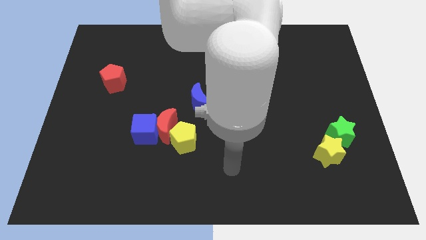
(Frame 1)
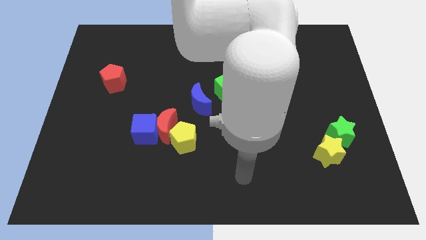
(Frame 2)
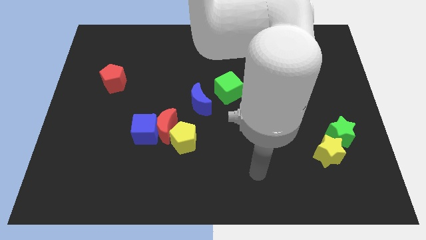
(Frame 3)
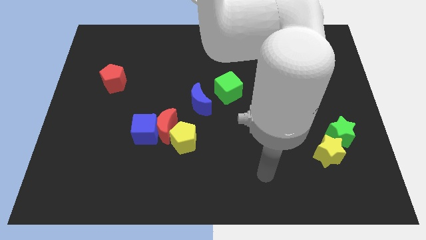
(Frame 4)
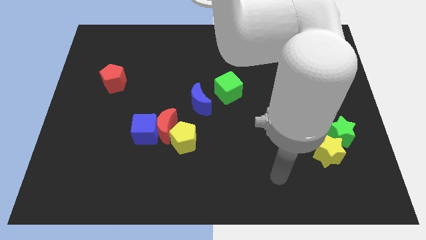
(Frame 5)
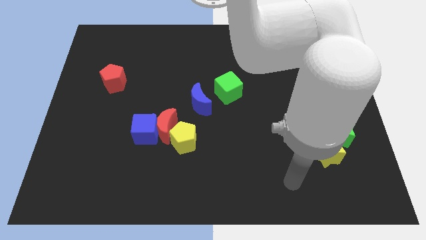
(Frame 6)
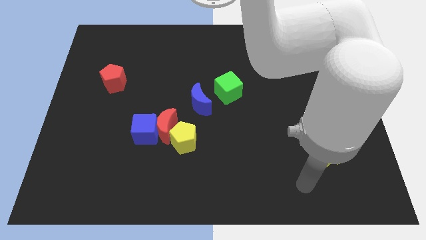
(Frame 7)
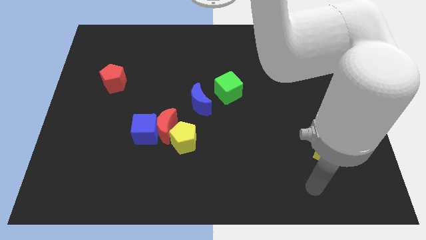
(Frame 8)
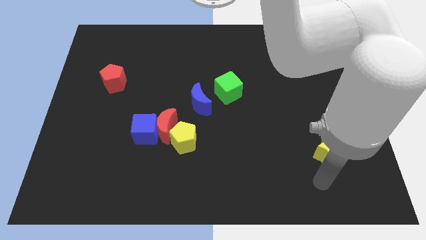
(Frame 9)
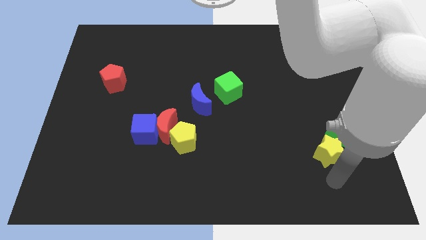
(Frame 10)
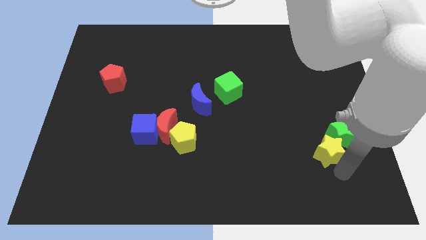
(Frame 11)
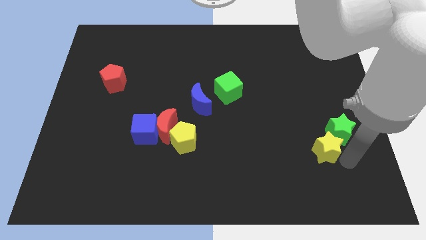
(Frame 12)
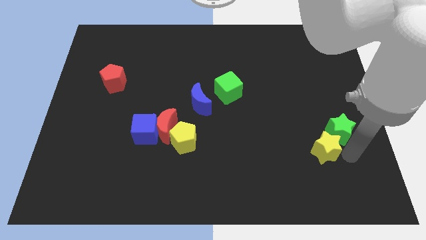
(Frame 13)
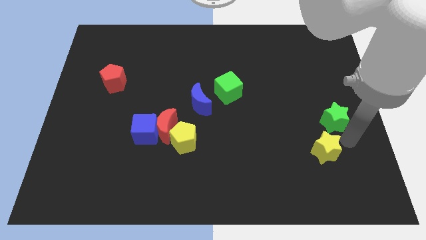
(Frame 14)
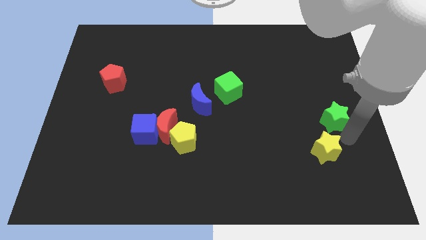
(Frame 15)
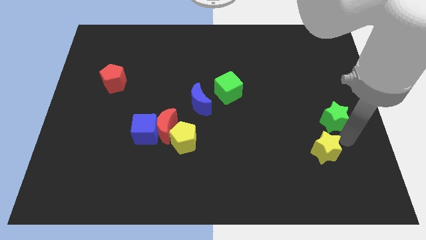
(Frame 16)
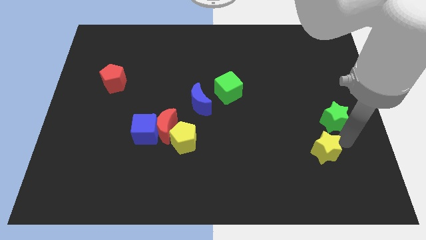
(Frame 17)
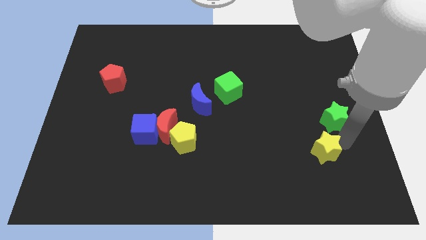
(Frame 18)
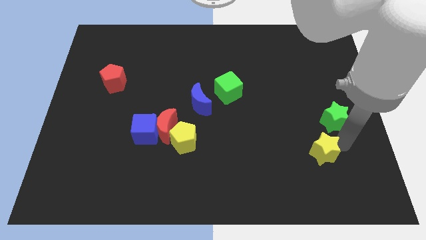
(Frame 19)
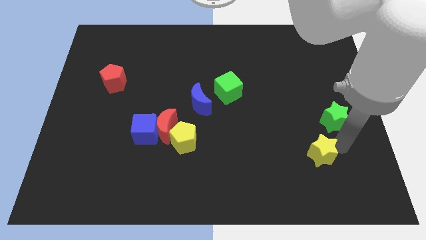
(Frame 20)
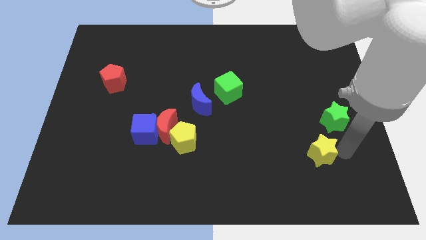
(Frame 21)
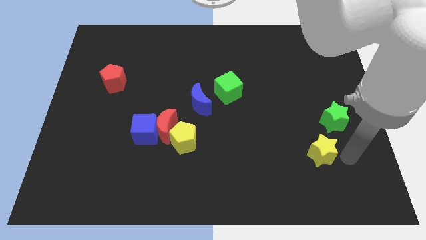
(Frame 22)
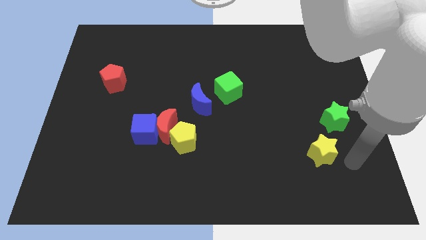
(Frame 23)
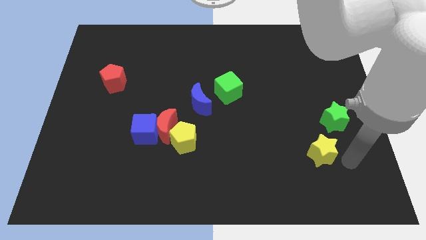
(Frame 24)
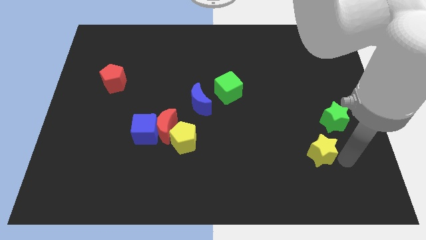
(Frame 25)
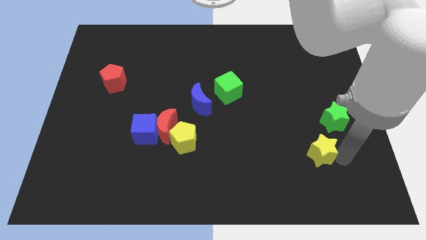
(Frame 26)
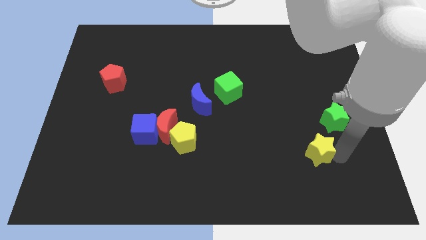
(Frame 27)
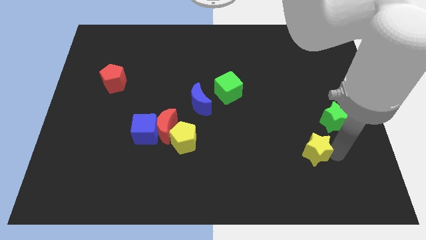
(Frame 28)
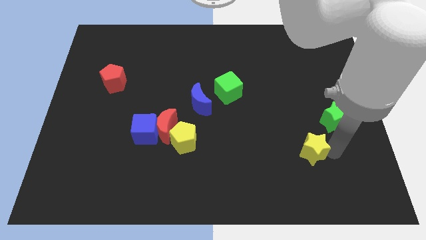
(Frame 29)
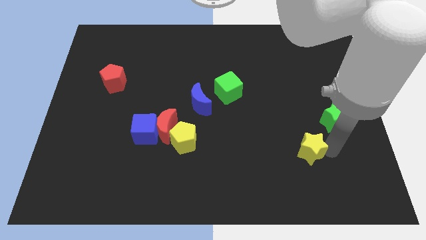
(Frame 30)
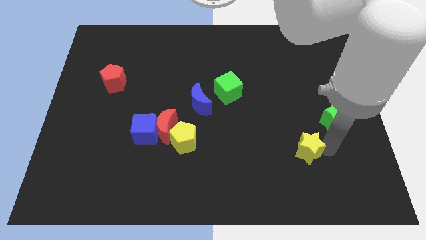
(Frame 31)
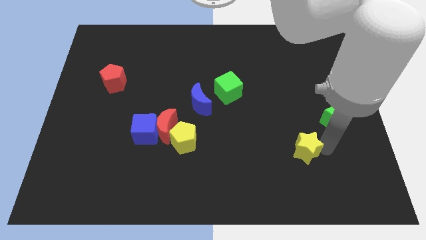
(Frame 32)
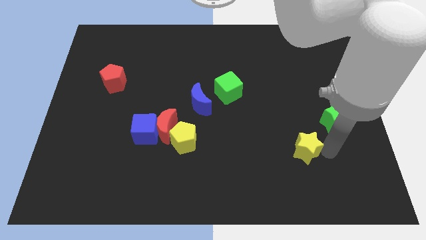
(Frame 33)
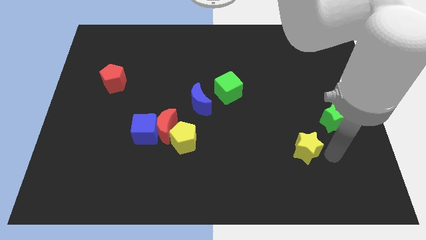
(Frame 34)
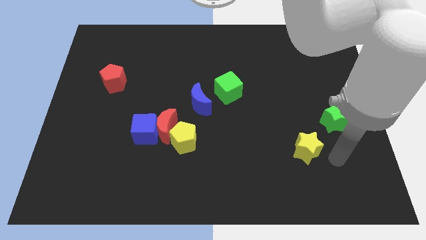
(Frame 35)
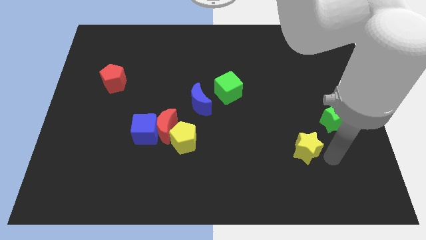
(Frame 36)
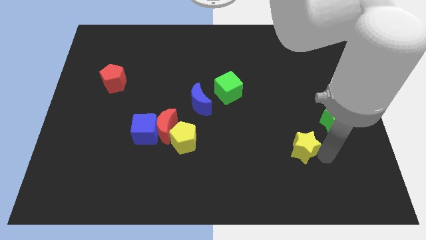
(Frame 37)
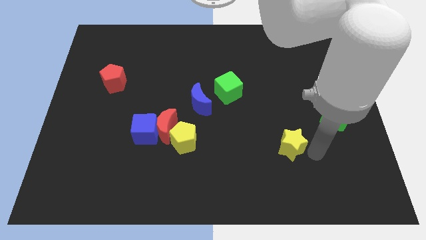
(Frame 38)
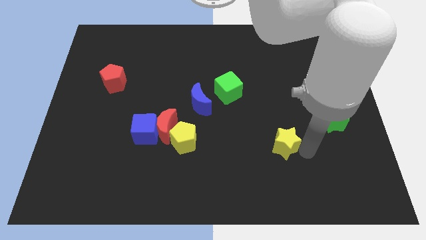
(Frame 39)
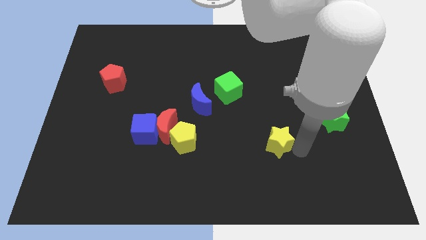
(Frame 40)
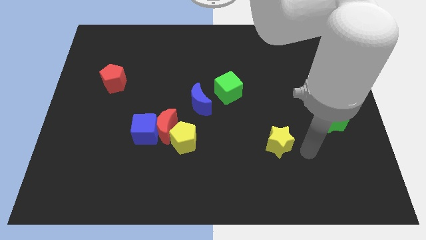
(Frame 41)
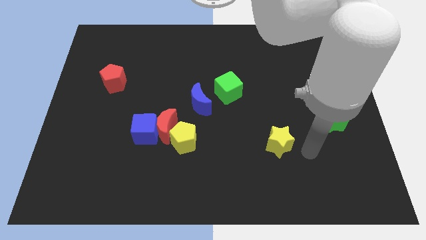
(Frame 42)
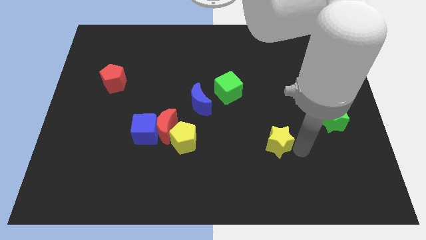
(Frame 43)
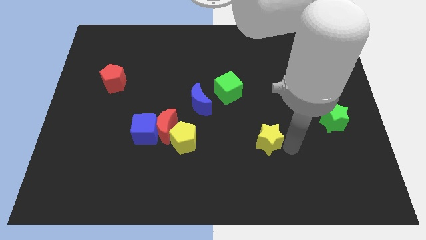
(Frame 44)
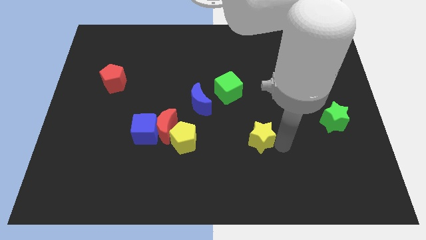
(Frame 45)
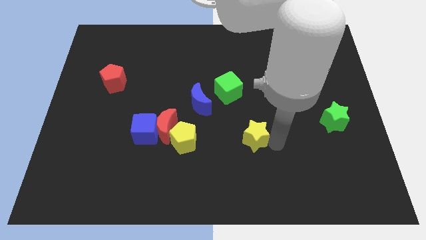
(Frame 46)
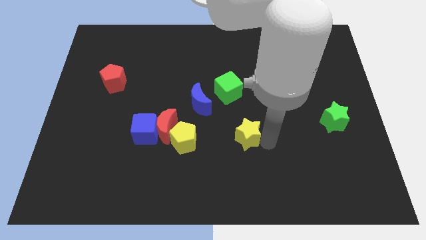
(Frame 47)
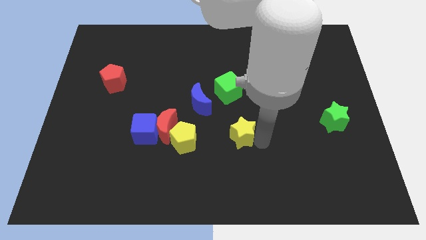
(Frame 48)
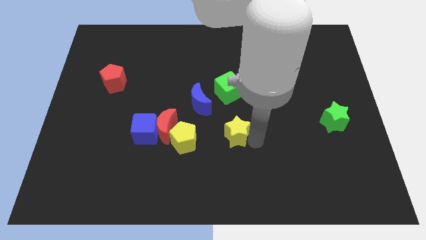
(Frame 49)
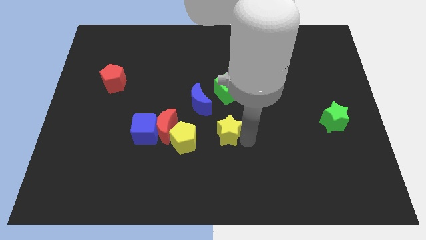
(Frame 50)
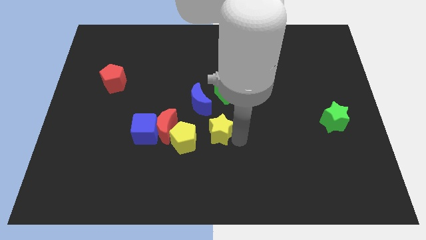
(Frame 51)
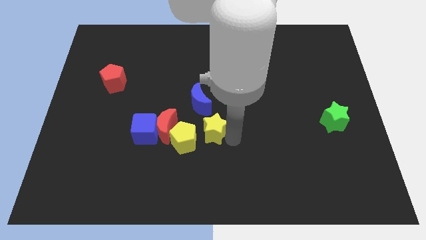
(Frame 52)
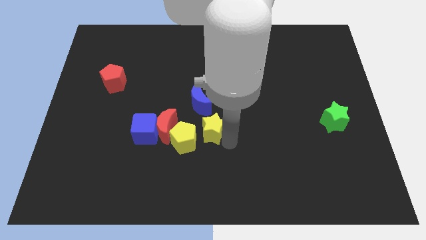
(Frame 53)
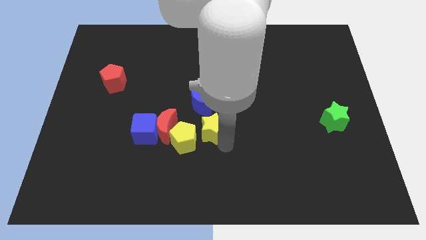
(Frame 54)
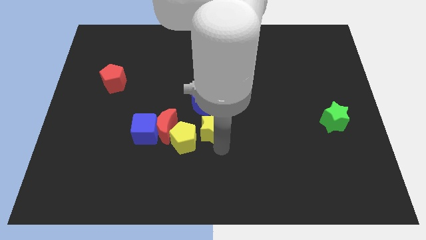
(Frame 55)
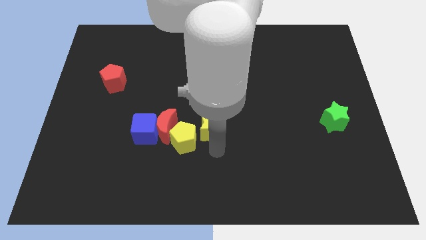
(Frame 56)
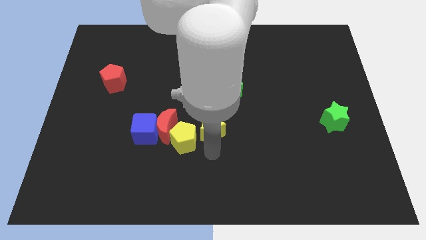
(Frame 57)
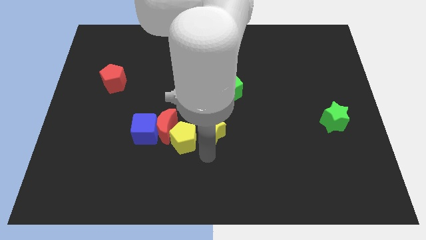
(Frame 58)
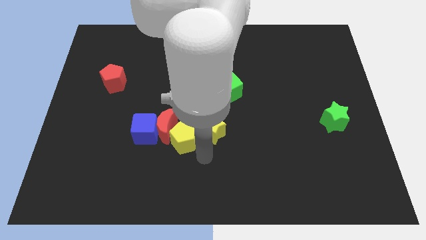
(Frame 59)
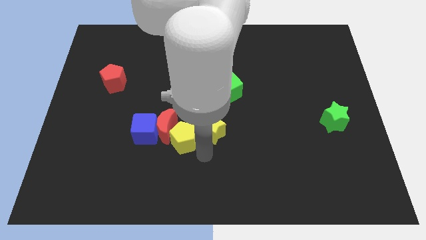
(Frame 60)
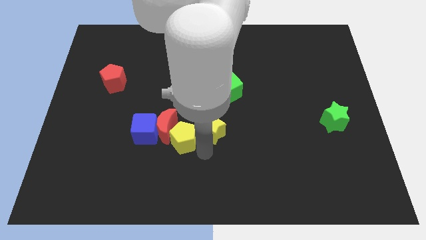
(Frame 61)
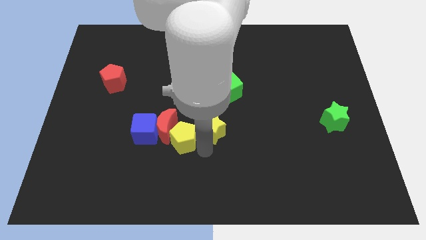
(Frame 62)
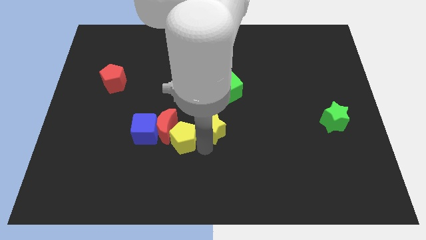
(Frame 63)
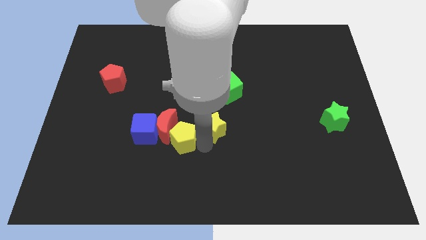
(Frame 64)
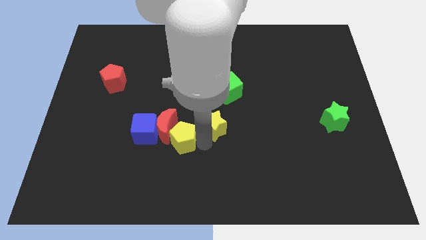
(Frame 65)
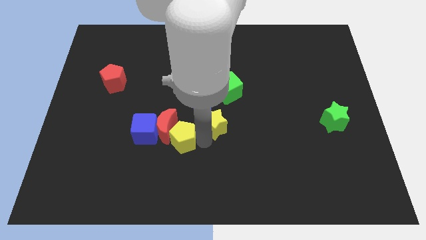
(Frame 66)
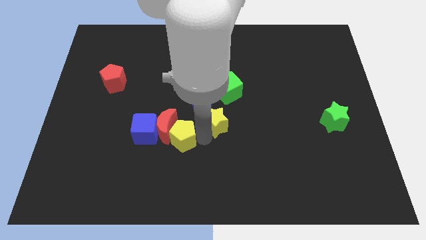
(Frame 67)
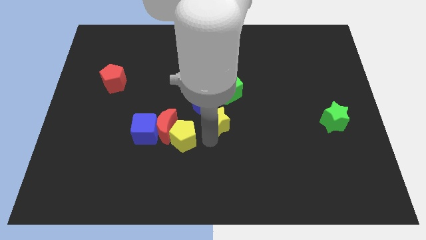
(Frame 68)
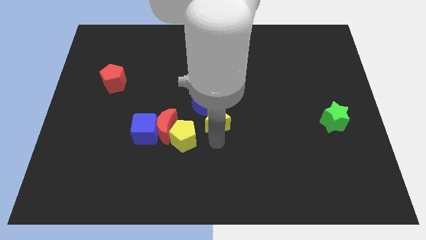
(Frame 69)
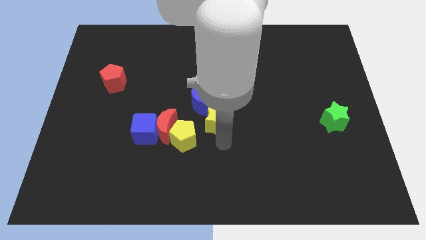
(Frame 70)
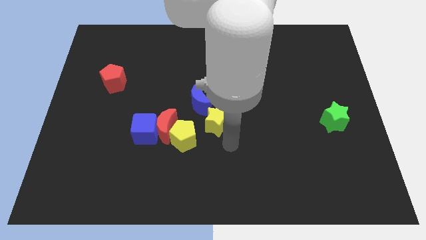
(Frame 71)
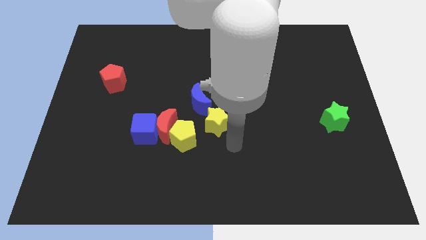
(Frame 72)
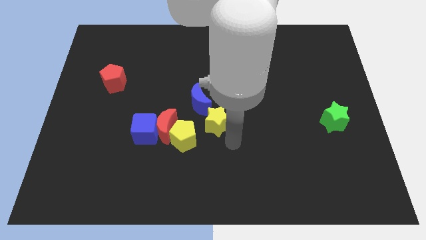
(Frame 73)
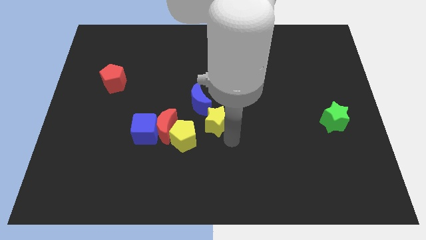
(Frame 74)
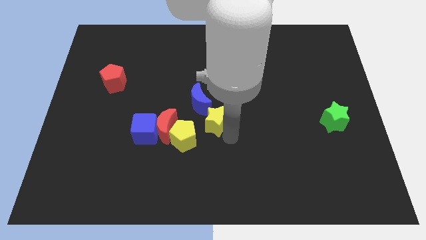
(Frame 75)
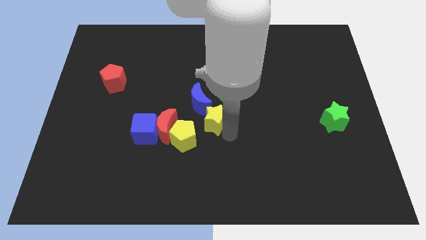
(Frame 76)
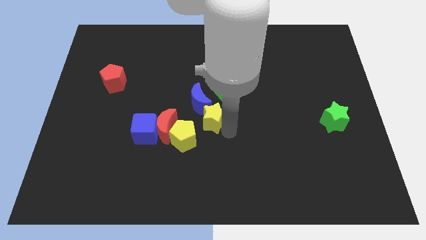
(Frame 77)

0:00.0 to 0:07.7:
move the yellow star towards the blue moon

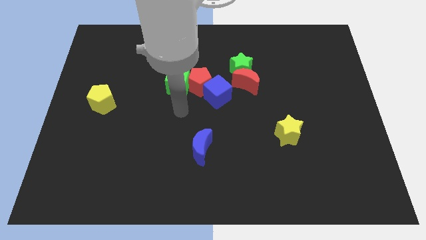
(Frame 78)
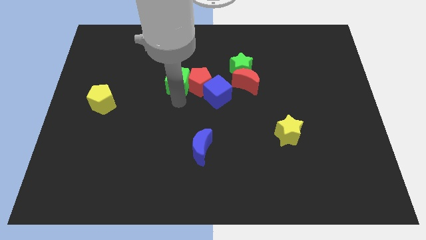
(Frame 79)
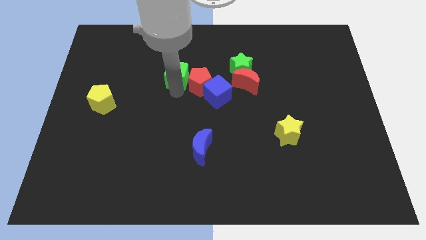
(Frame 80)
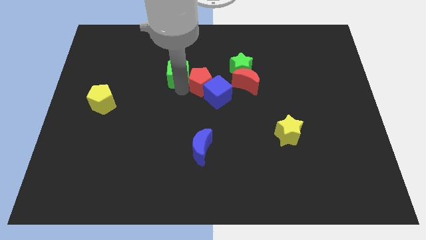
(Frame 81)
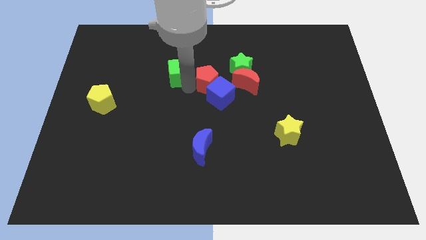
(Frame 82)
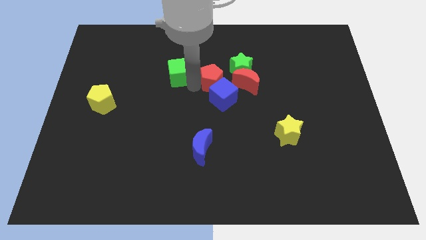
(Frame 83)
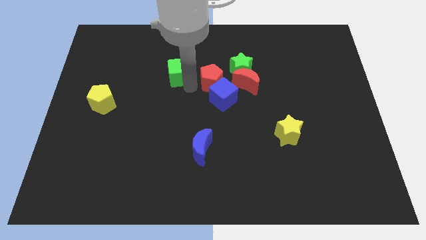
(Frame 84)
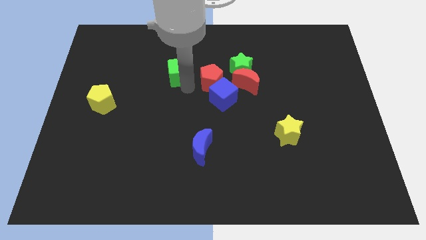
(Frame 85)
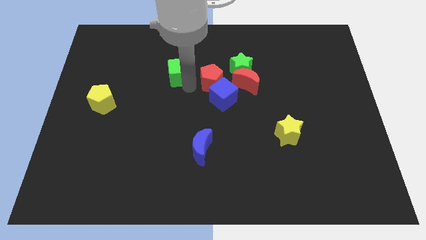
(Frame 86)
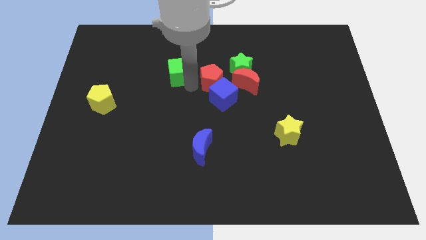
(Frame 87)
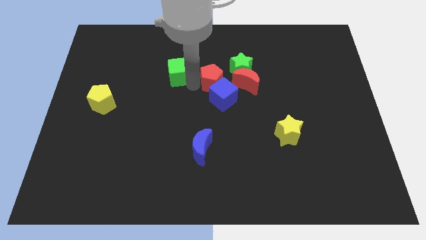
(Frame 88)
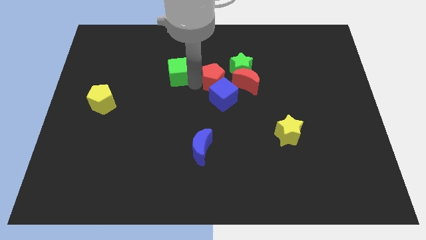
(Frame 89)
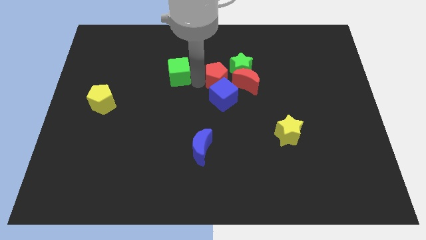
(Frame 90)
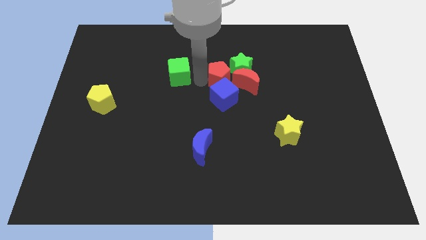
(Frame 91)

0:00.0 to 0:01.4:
slide the red pentagon towards the green star
